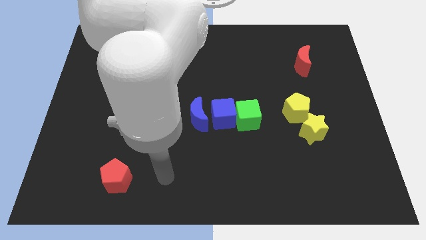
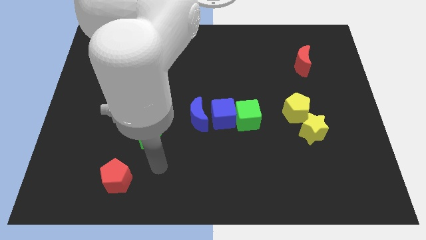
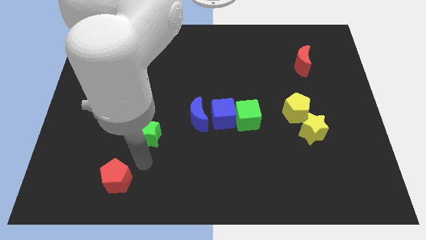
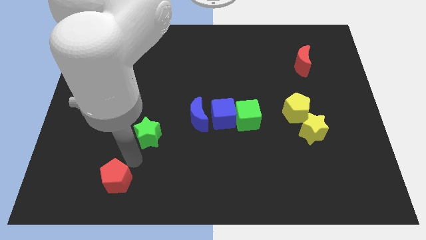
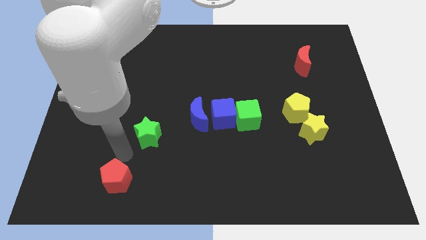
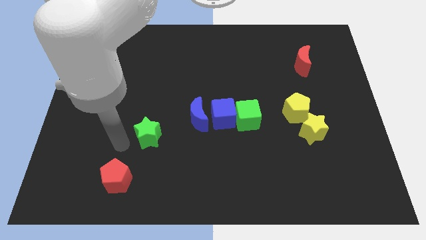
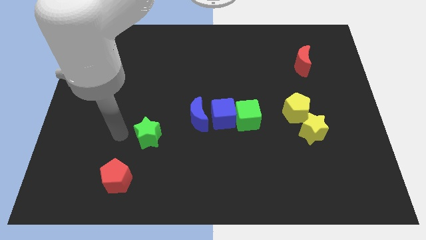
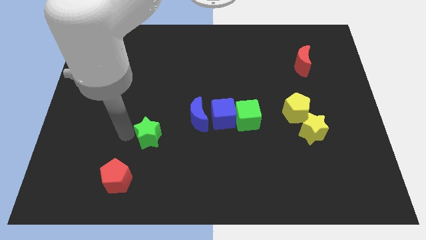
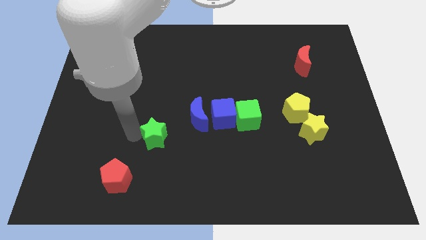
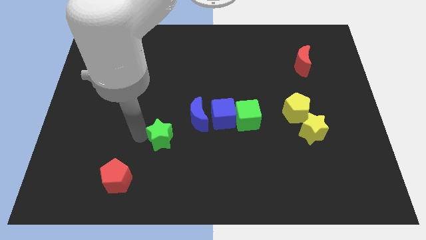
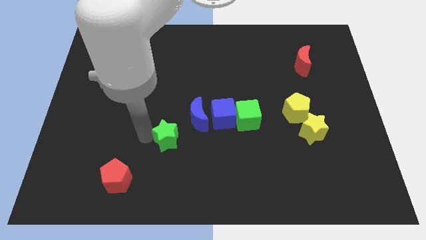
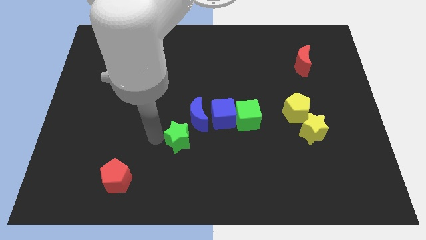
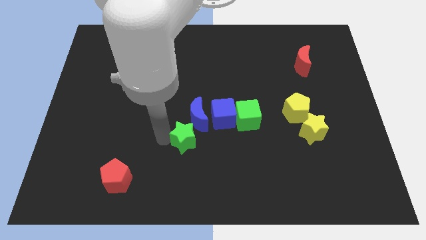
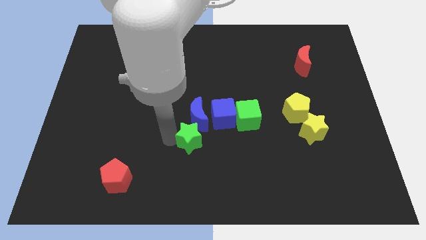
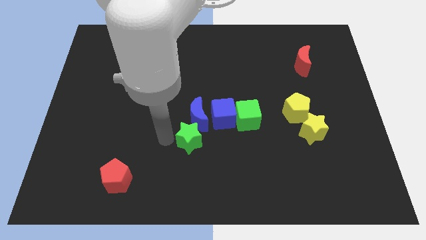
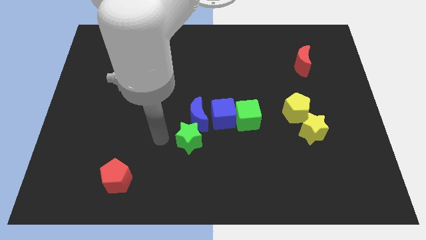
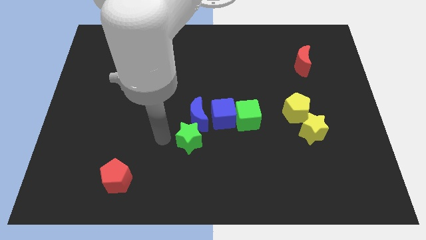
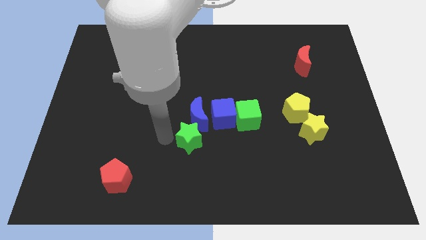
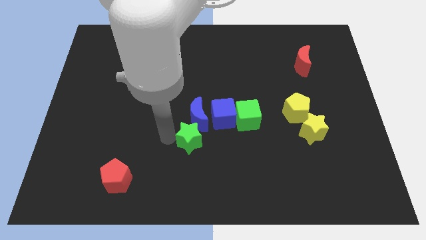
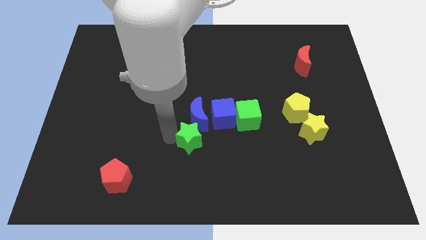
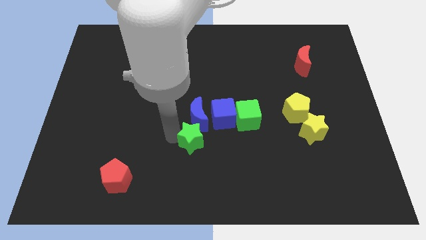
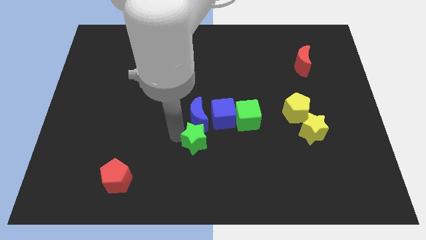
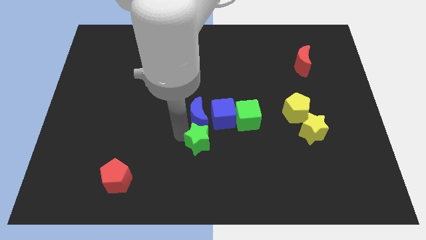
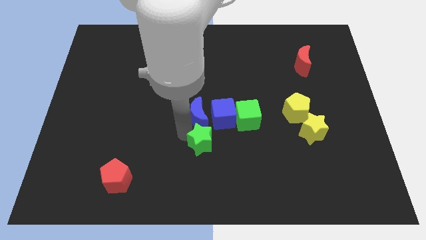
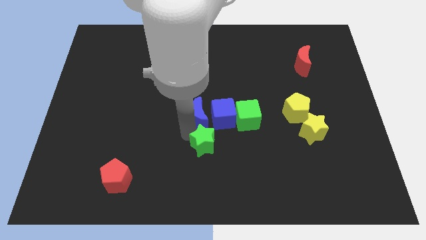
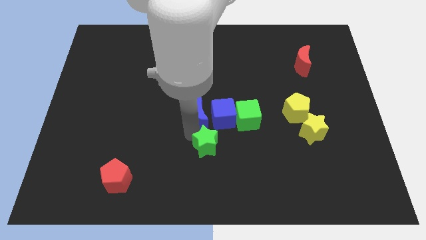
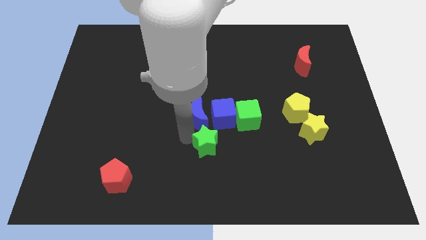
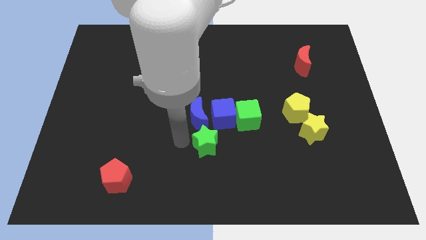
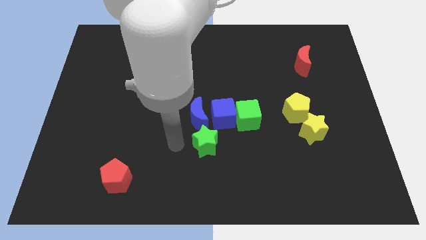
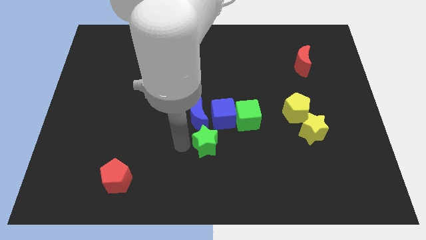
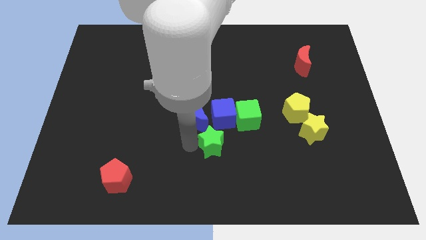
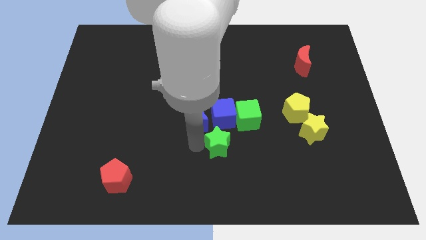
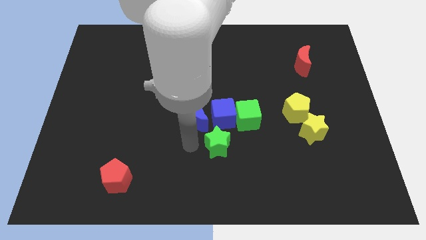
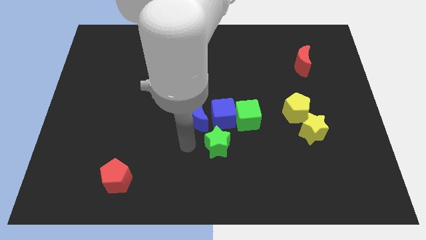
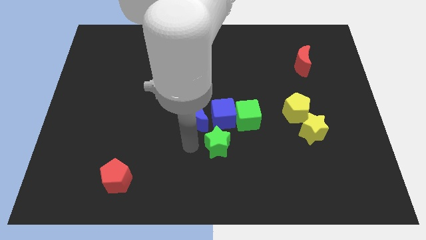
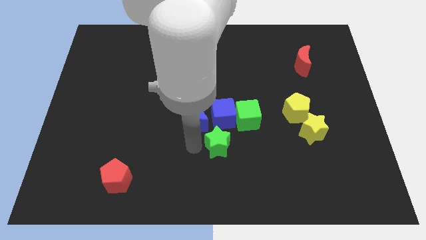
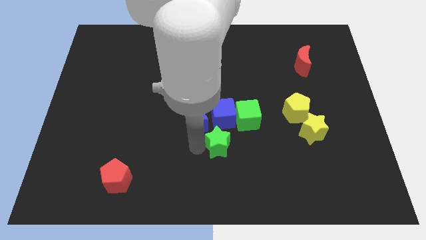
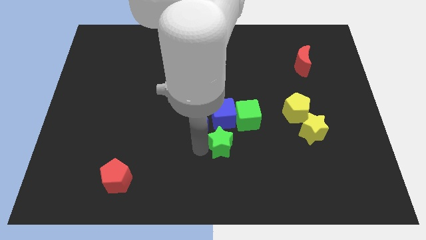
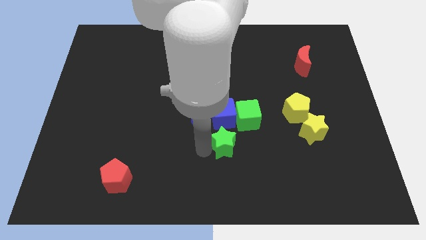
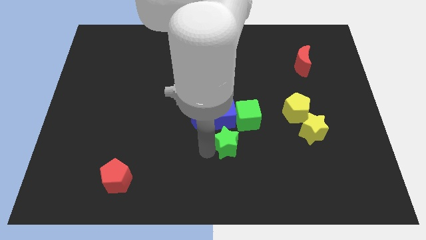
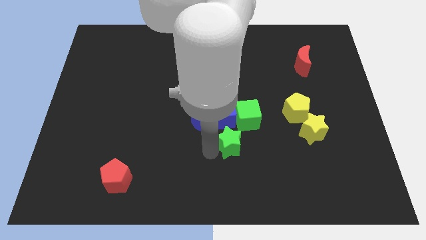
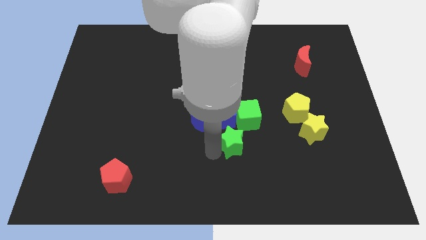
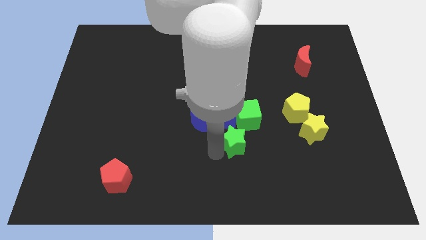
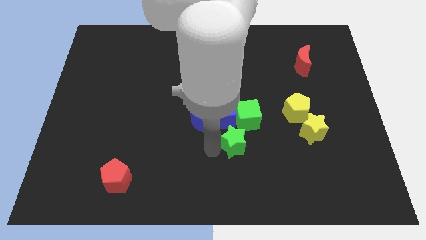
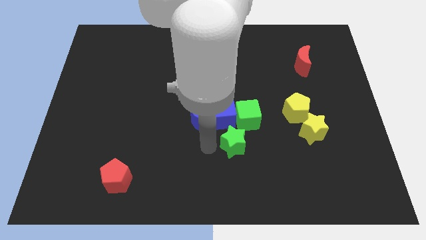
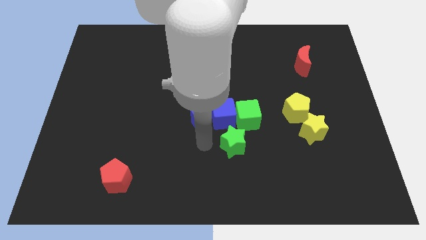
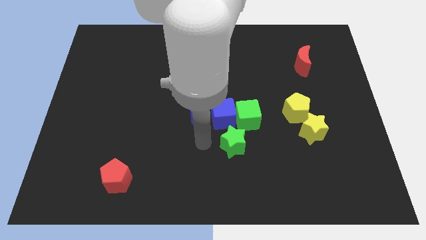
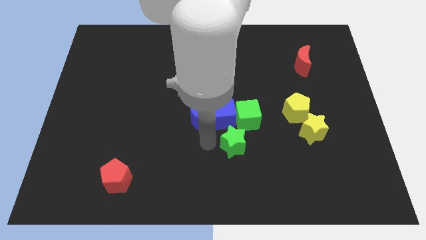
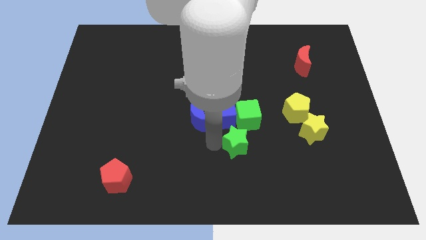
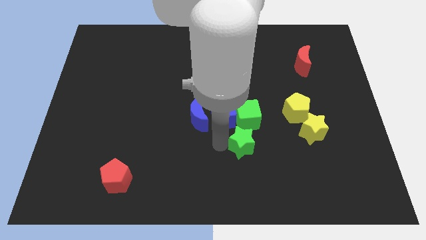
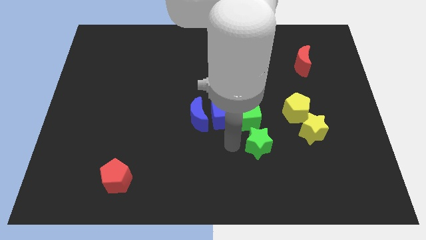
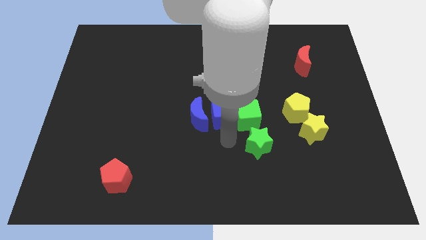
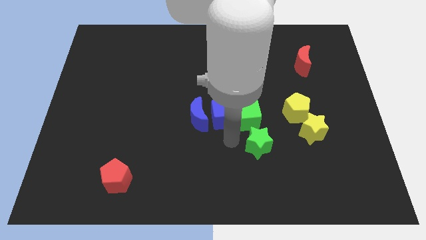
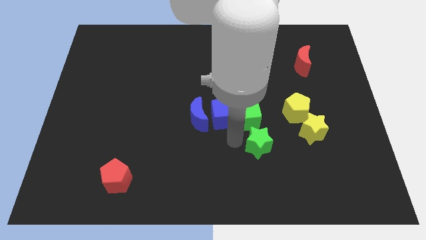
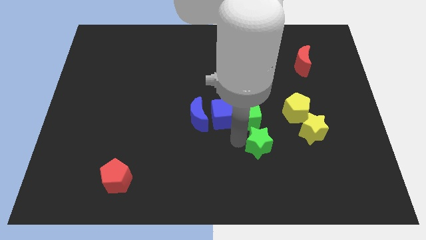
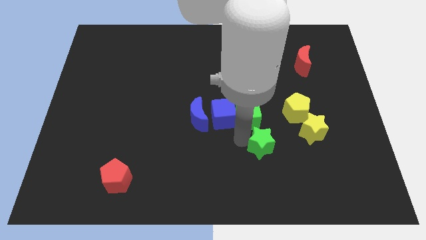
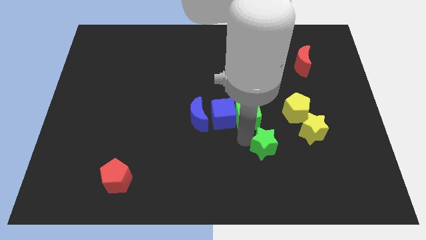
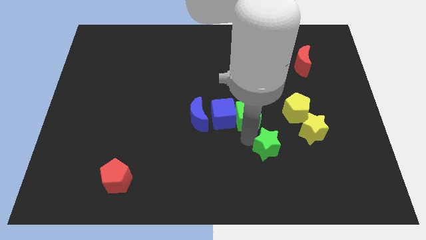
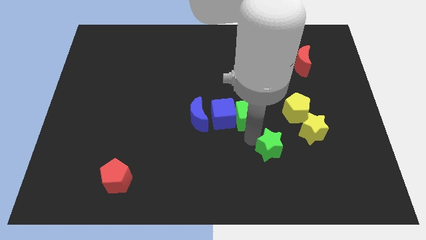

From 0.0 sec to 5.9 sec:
move the green star to the bottom left of the yellow star
